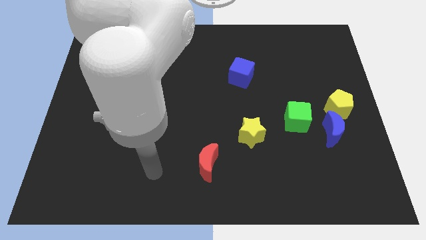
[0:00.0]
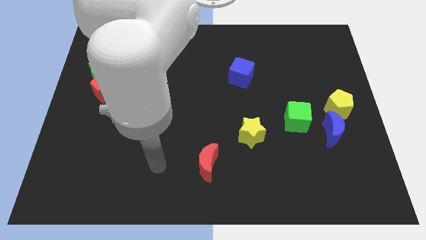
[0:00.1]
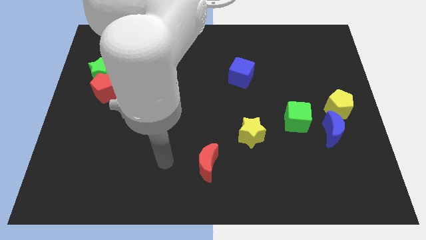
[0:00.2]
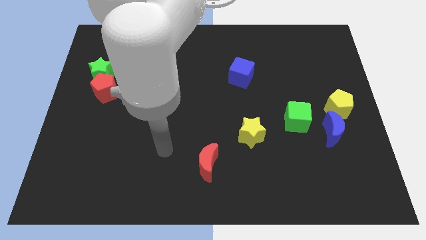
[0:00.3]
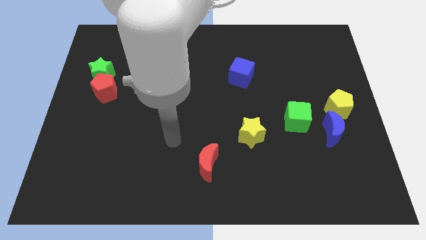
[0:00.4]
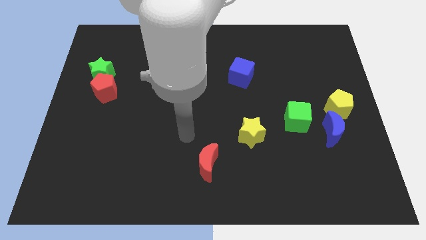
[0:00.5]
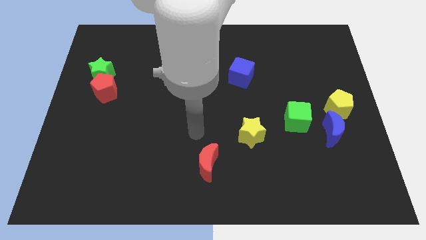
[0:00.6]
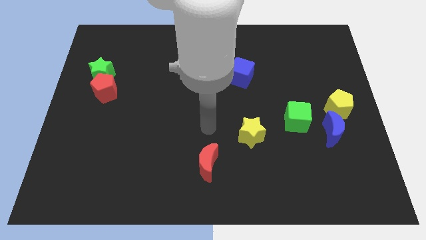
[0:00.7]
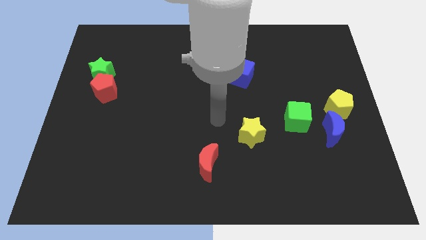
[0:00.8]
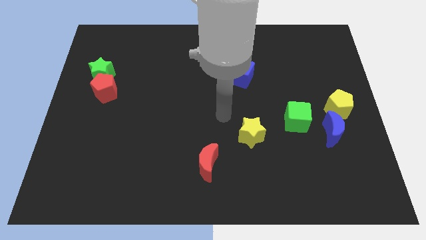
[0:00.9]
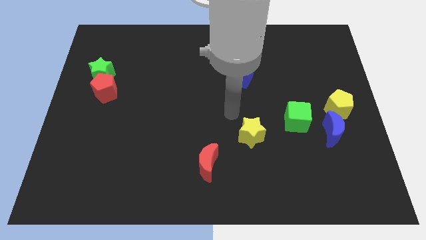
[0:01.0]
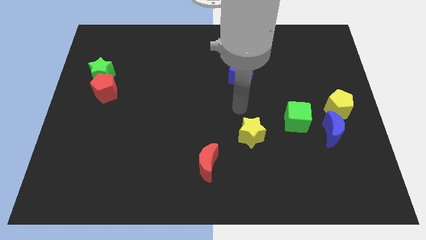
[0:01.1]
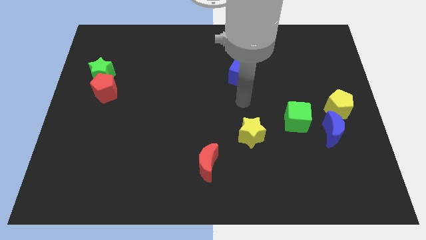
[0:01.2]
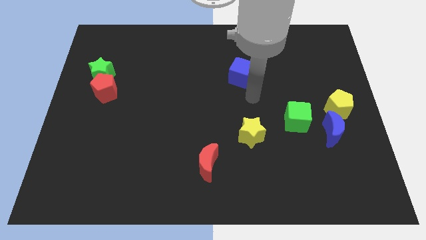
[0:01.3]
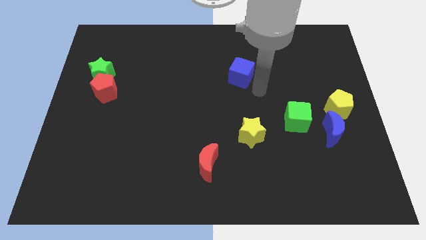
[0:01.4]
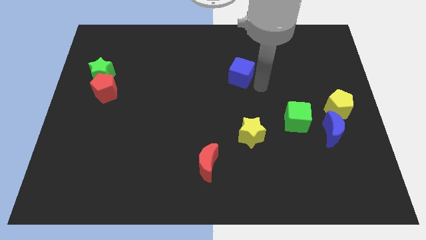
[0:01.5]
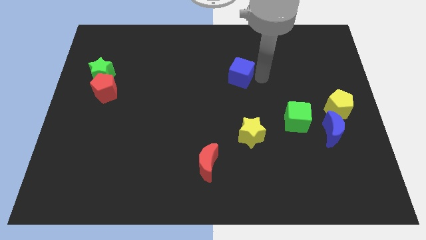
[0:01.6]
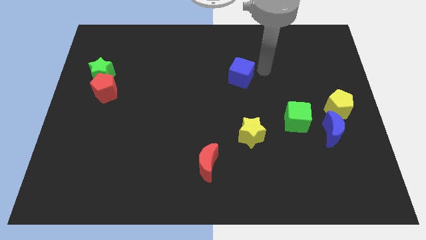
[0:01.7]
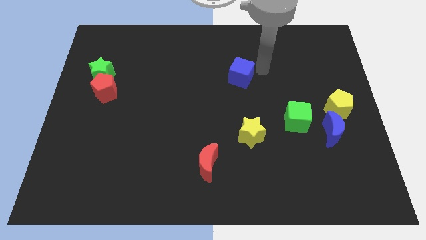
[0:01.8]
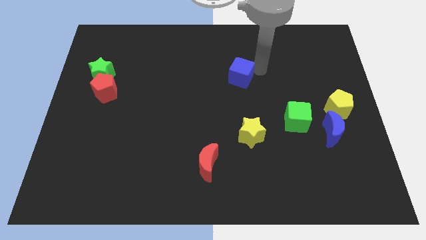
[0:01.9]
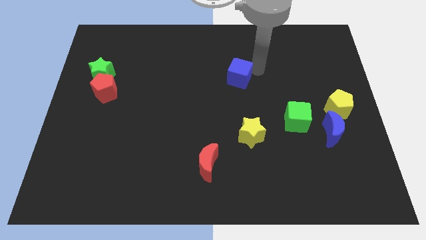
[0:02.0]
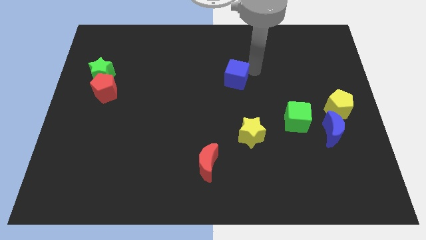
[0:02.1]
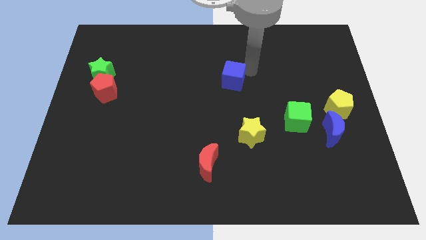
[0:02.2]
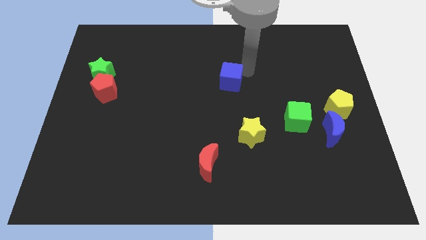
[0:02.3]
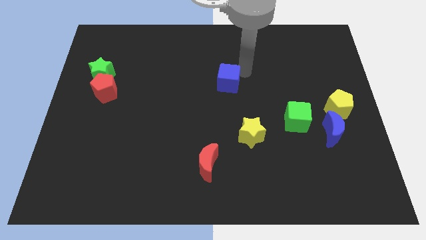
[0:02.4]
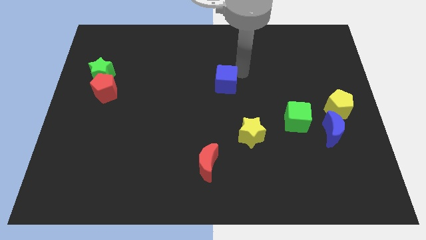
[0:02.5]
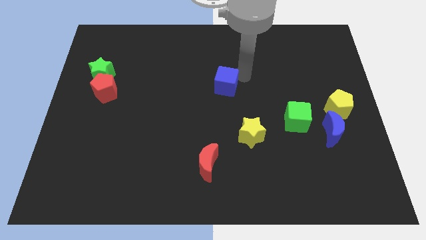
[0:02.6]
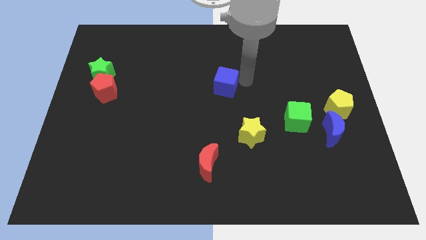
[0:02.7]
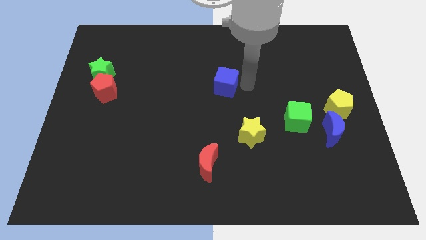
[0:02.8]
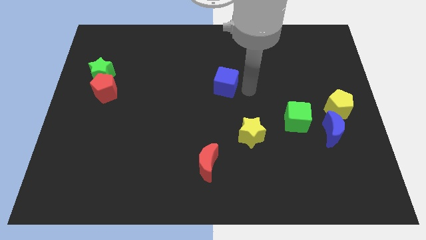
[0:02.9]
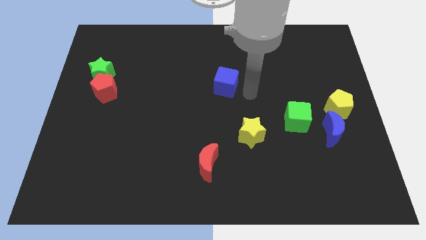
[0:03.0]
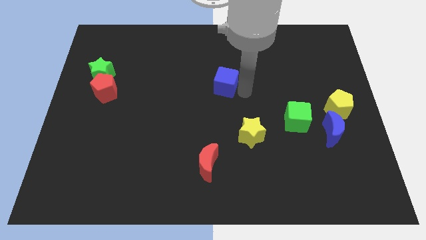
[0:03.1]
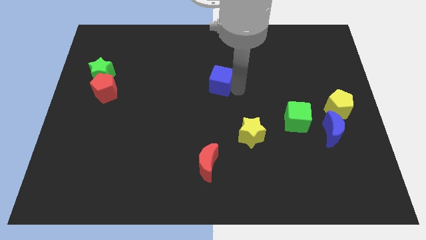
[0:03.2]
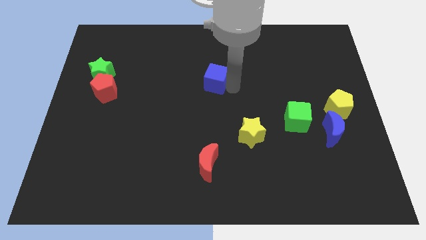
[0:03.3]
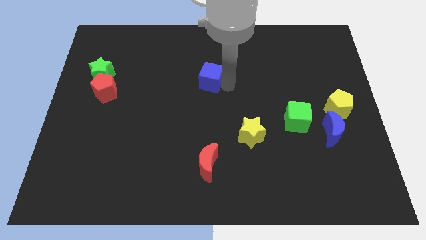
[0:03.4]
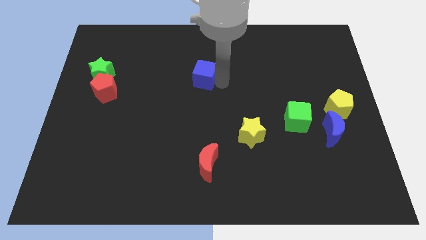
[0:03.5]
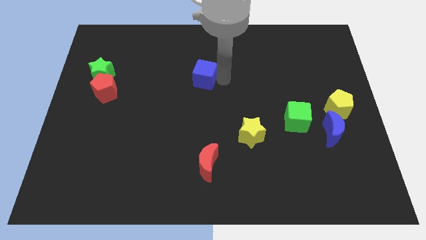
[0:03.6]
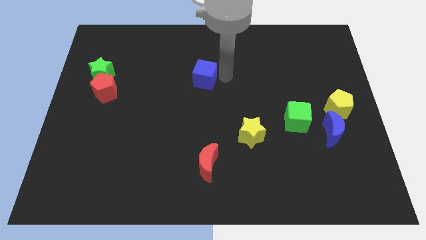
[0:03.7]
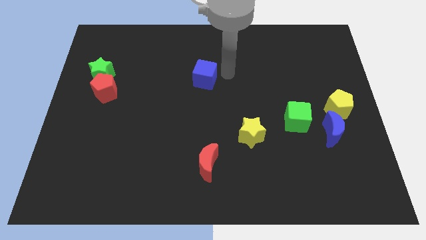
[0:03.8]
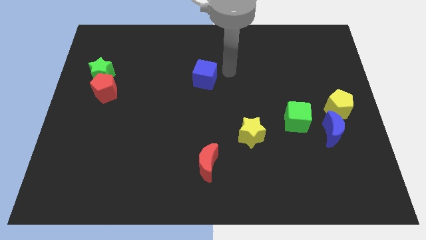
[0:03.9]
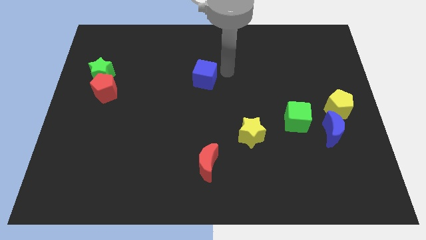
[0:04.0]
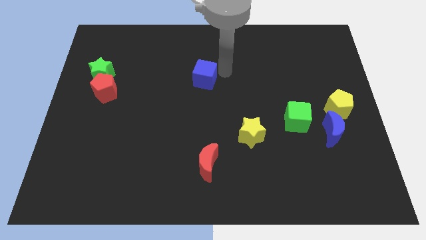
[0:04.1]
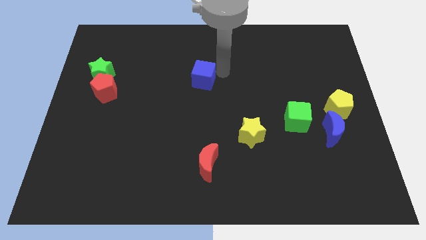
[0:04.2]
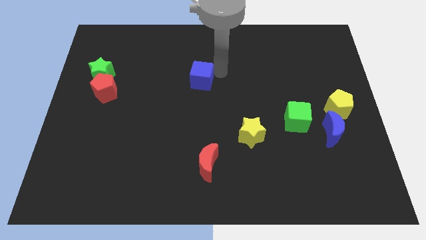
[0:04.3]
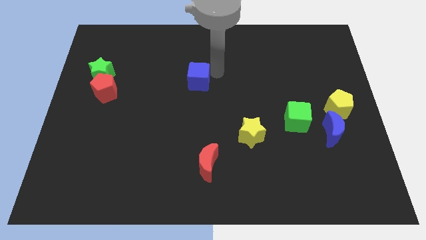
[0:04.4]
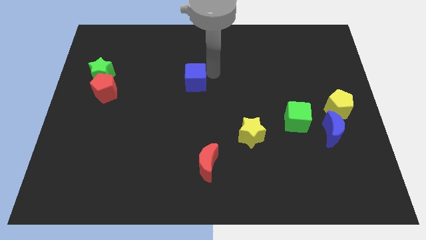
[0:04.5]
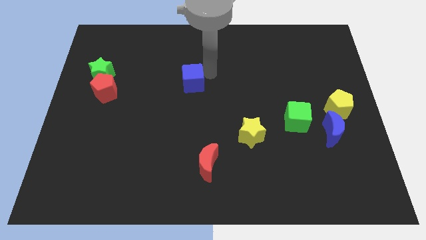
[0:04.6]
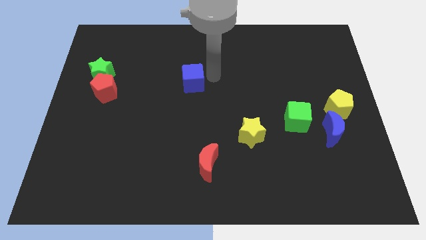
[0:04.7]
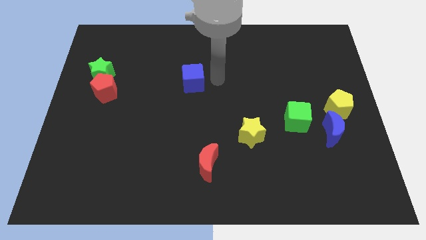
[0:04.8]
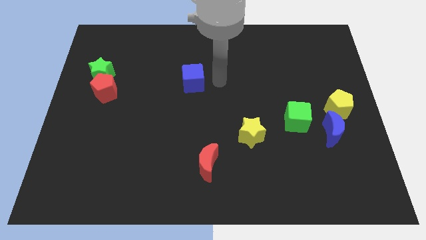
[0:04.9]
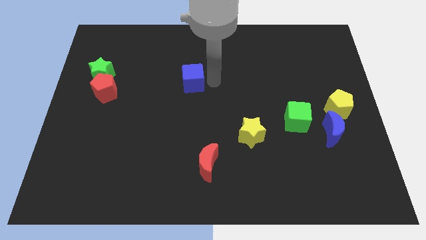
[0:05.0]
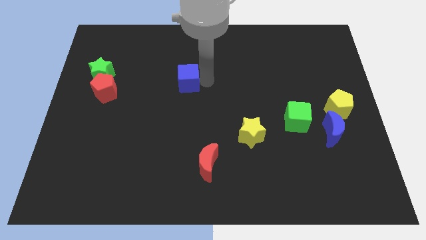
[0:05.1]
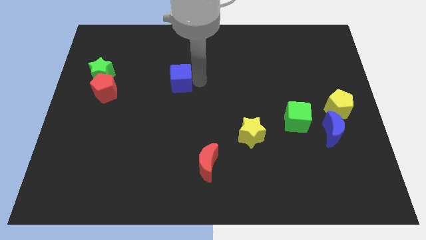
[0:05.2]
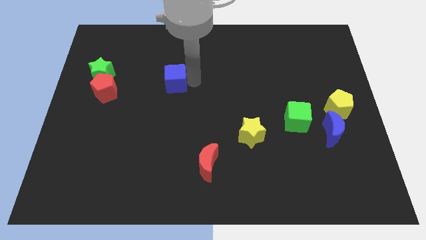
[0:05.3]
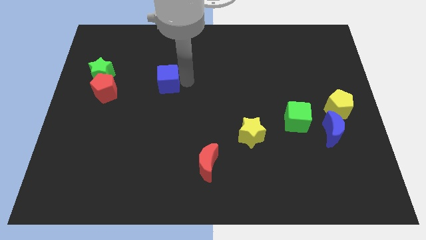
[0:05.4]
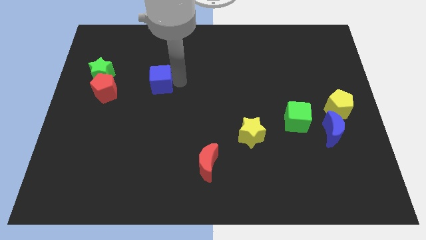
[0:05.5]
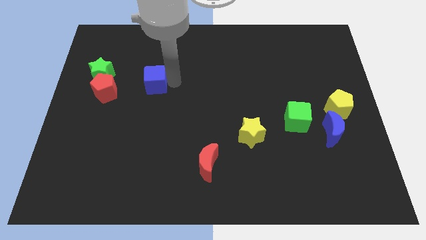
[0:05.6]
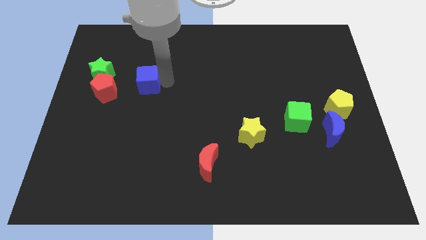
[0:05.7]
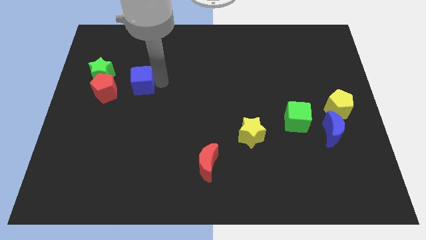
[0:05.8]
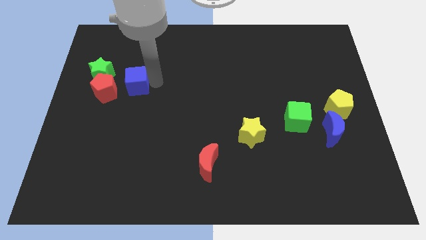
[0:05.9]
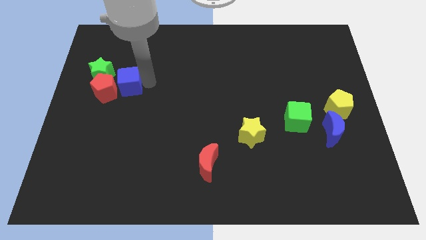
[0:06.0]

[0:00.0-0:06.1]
push the blue cube towards the red pentagon

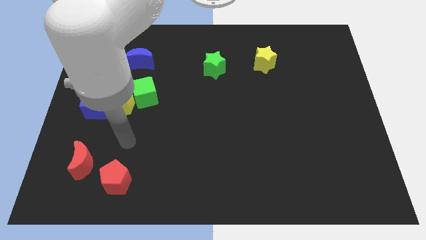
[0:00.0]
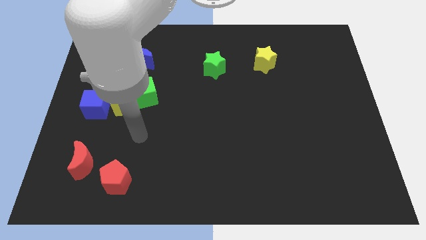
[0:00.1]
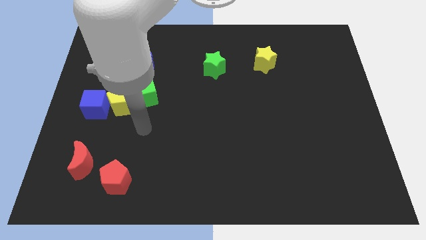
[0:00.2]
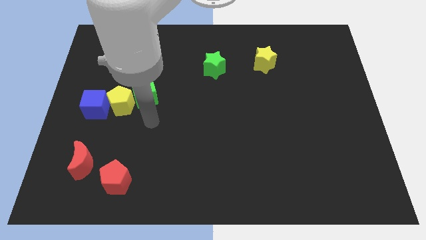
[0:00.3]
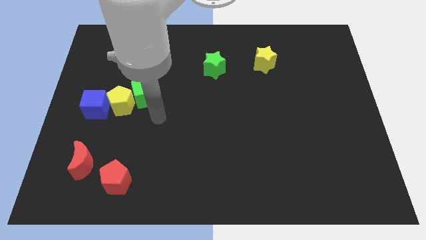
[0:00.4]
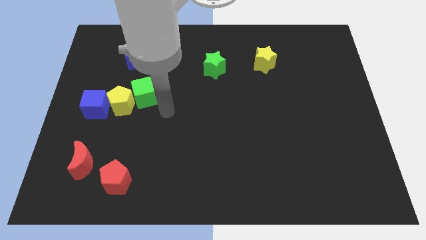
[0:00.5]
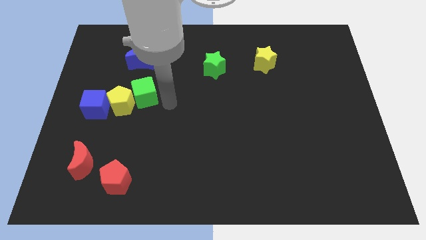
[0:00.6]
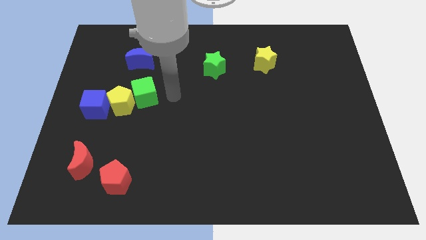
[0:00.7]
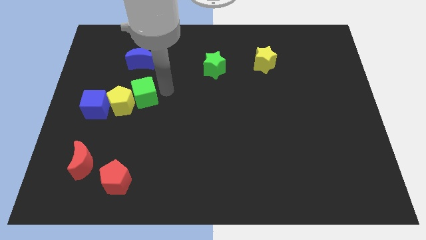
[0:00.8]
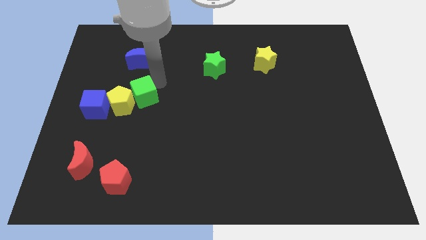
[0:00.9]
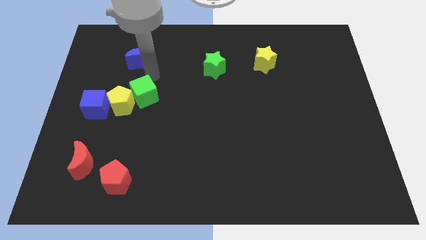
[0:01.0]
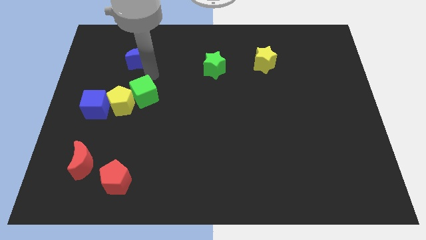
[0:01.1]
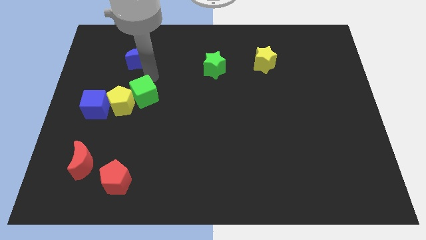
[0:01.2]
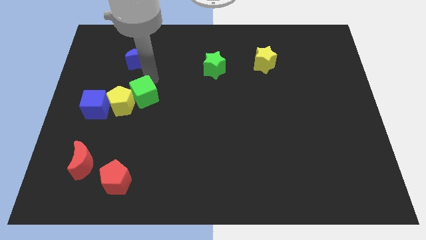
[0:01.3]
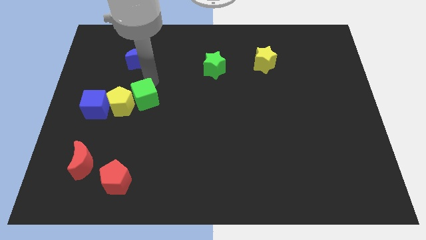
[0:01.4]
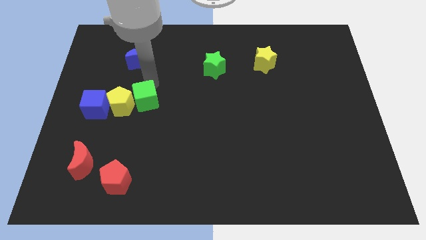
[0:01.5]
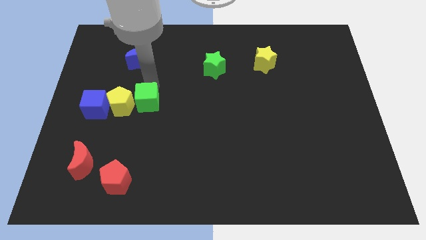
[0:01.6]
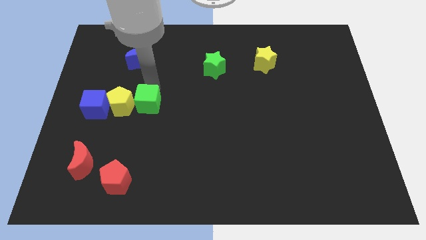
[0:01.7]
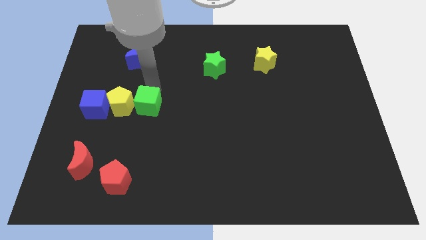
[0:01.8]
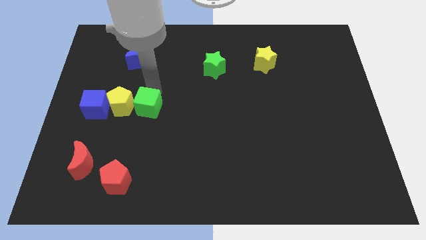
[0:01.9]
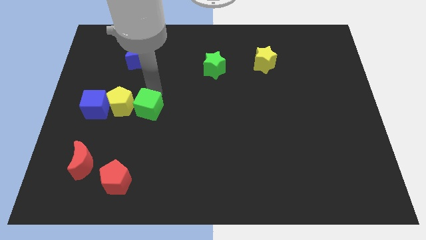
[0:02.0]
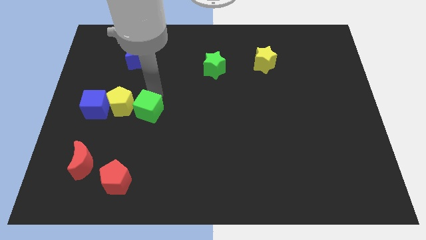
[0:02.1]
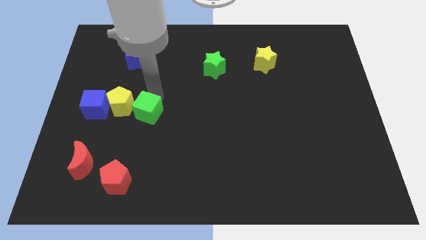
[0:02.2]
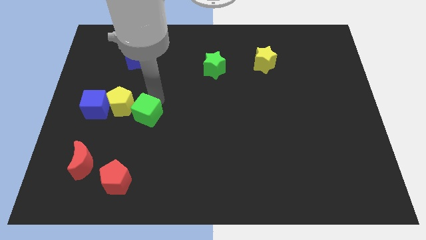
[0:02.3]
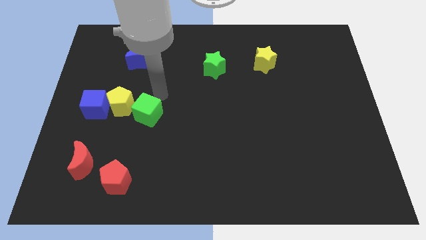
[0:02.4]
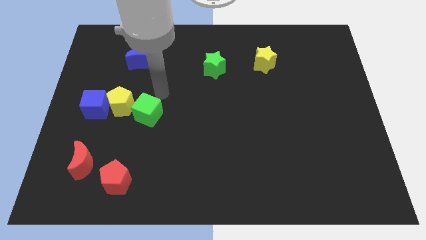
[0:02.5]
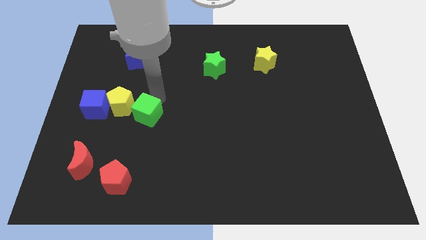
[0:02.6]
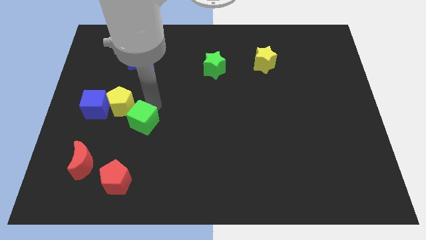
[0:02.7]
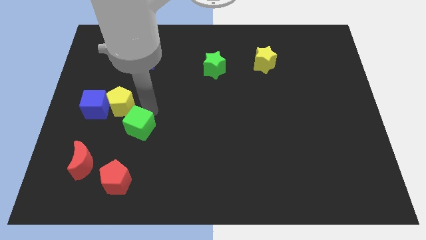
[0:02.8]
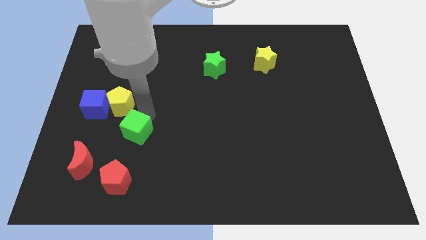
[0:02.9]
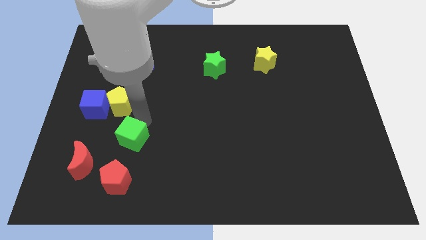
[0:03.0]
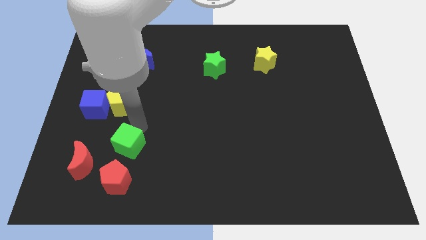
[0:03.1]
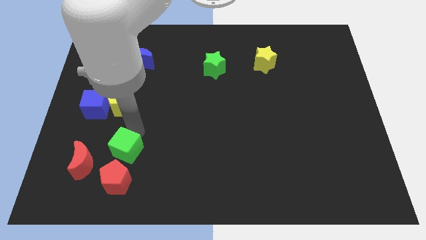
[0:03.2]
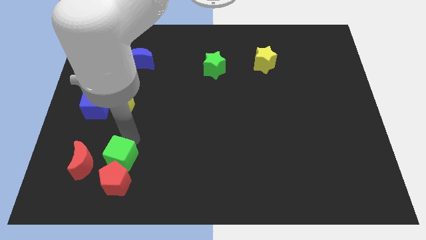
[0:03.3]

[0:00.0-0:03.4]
push the green cube close to the red pentagon
